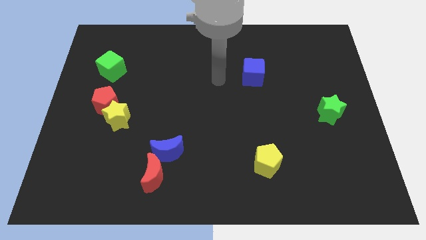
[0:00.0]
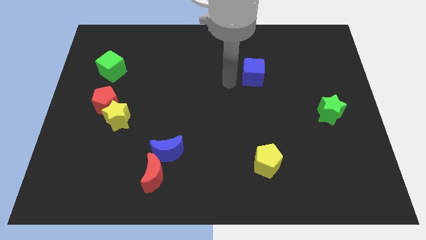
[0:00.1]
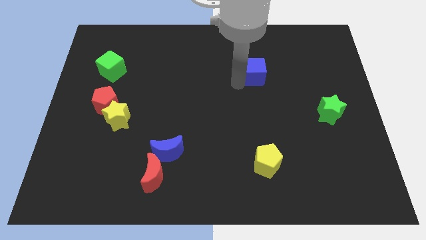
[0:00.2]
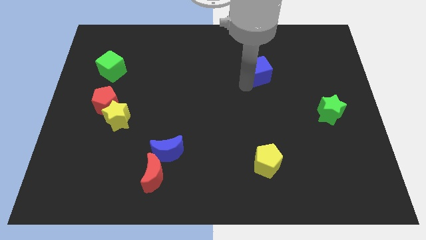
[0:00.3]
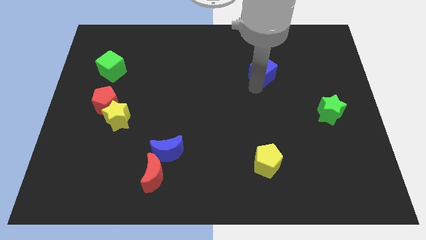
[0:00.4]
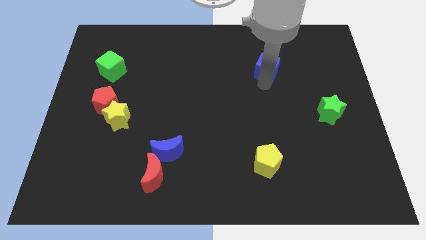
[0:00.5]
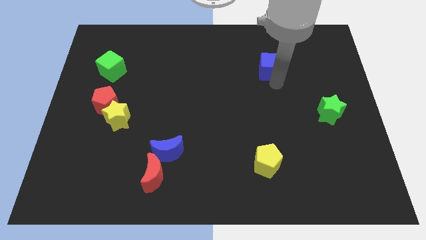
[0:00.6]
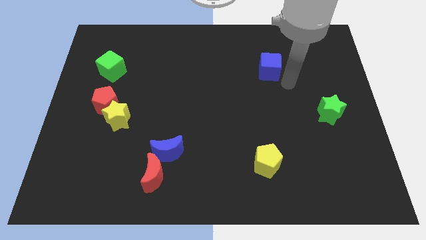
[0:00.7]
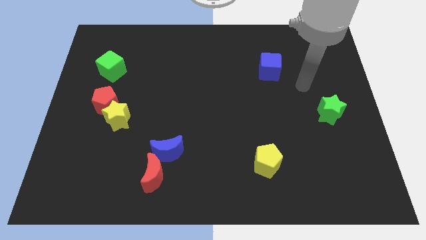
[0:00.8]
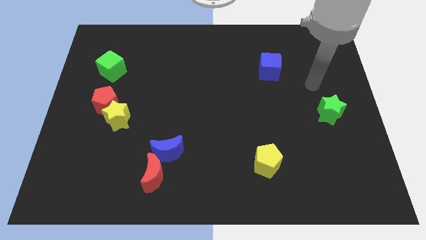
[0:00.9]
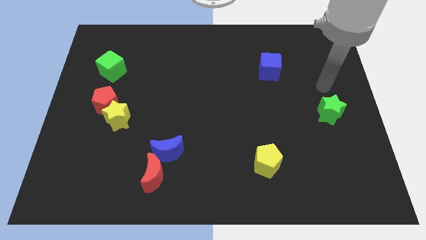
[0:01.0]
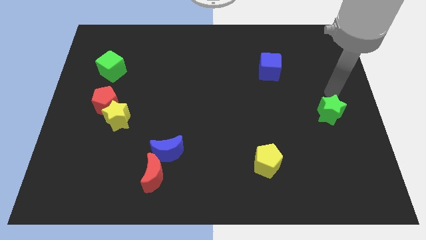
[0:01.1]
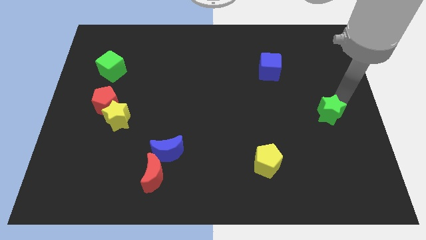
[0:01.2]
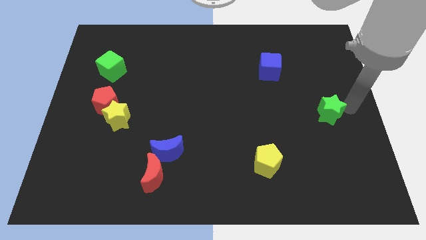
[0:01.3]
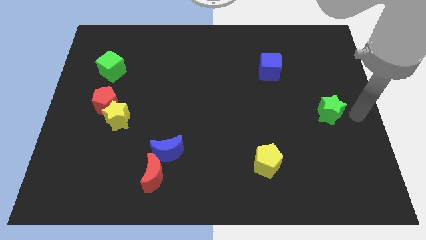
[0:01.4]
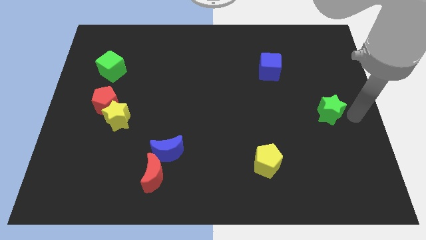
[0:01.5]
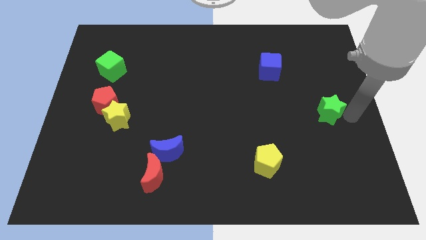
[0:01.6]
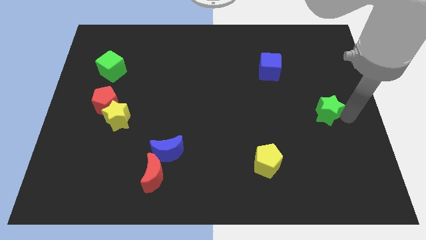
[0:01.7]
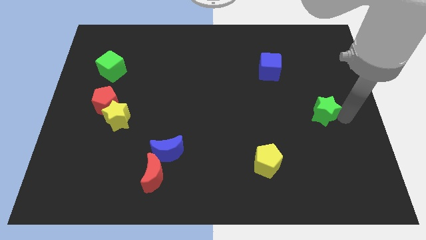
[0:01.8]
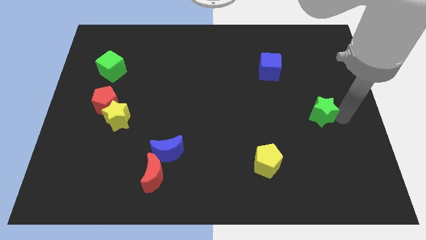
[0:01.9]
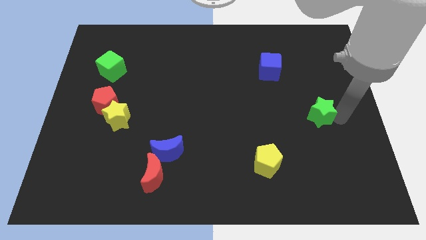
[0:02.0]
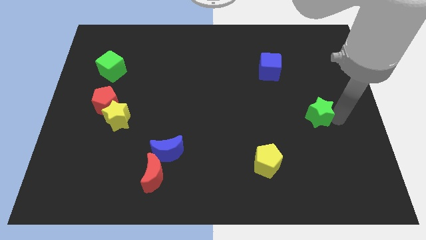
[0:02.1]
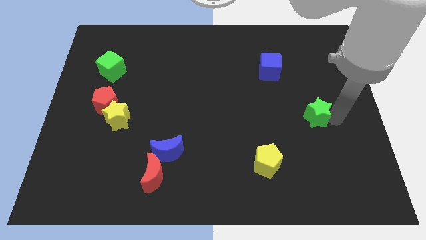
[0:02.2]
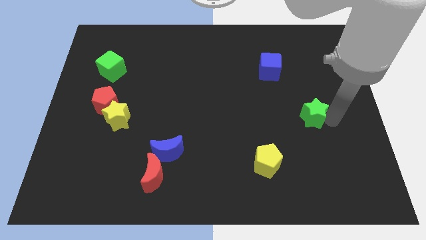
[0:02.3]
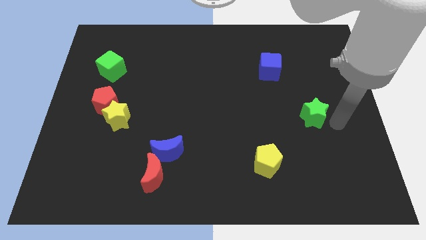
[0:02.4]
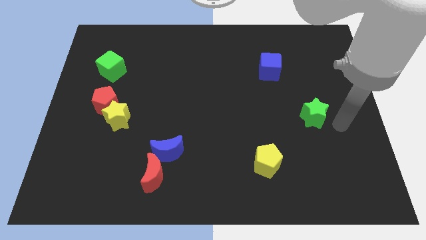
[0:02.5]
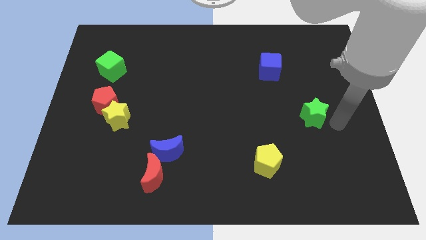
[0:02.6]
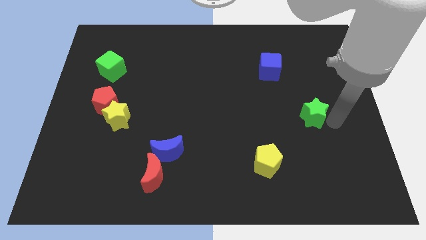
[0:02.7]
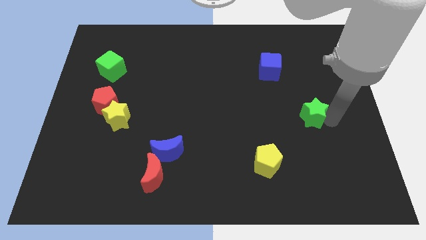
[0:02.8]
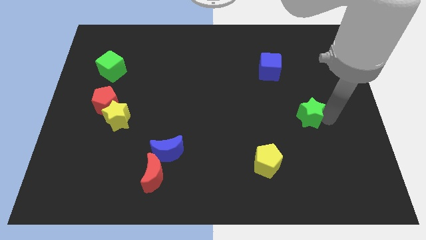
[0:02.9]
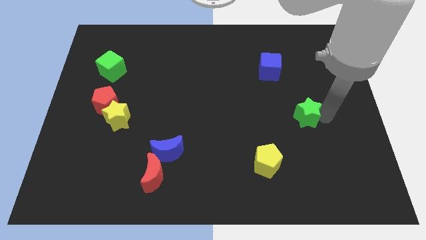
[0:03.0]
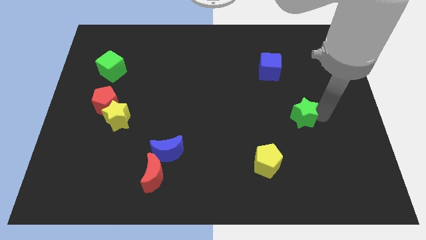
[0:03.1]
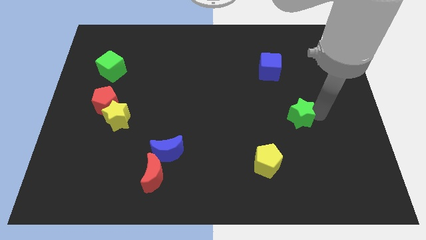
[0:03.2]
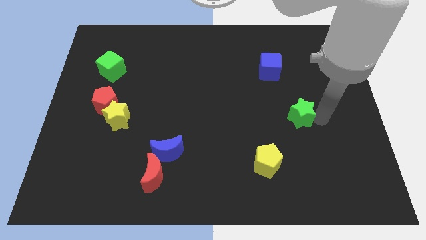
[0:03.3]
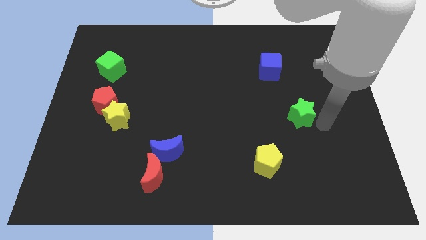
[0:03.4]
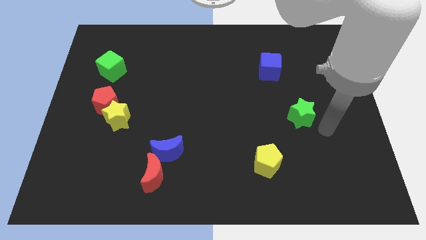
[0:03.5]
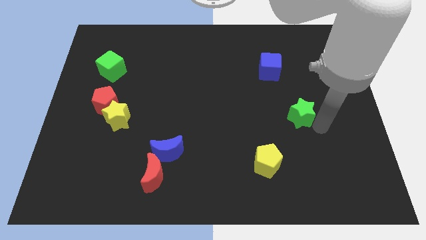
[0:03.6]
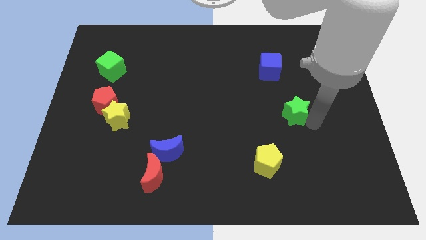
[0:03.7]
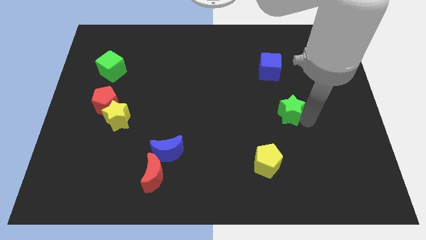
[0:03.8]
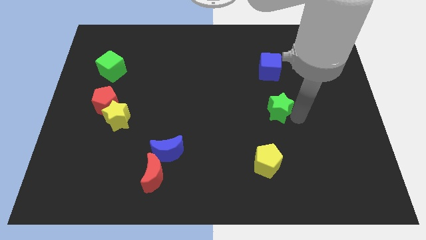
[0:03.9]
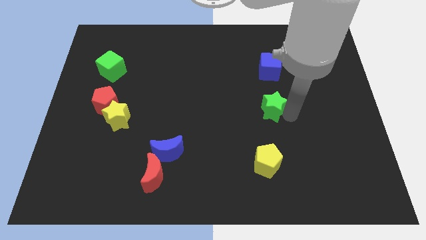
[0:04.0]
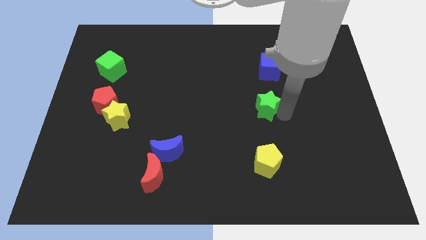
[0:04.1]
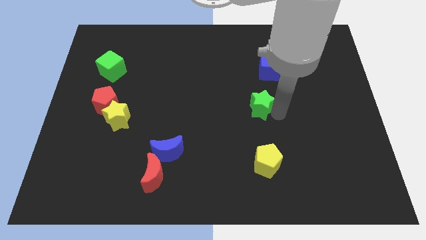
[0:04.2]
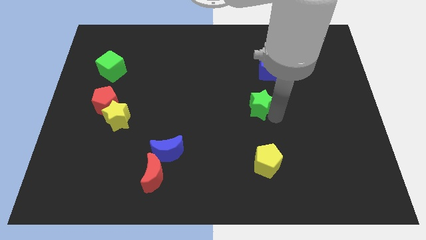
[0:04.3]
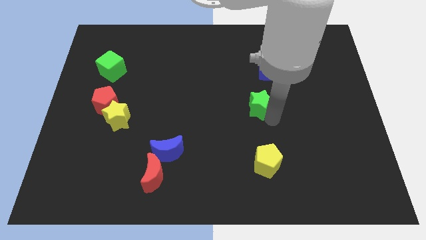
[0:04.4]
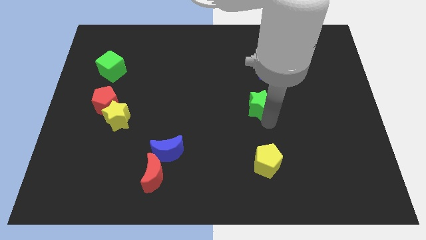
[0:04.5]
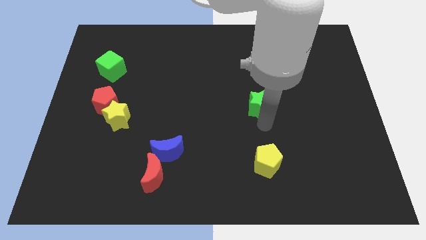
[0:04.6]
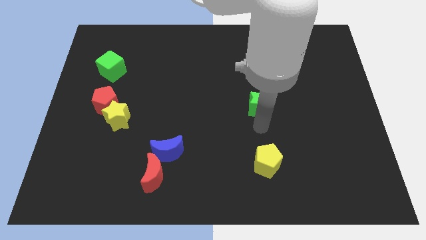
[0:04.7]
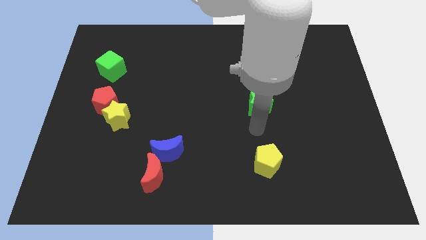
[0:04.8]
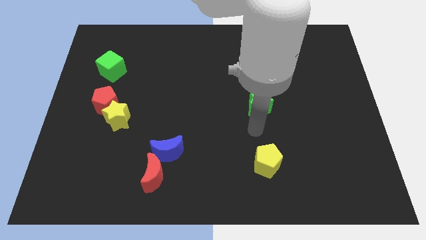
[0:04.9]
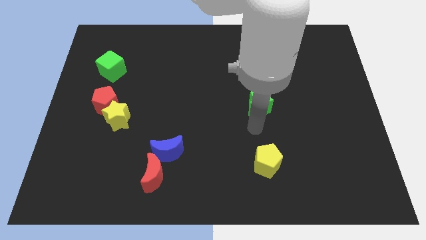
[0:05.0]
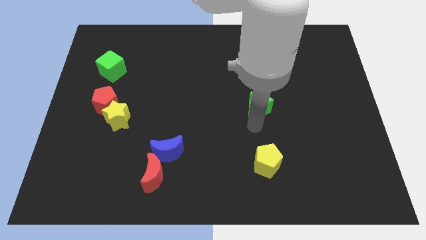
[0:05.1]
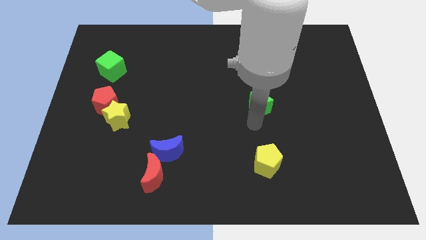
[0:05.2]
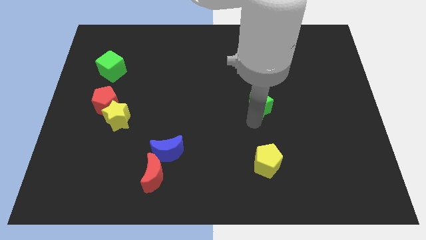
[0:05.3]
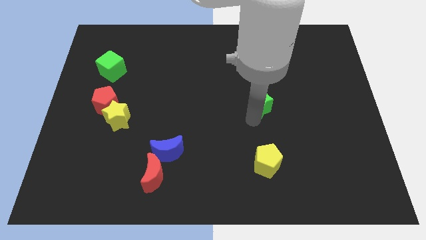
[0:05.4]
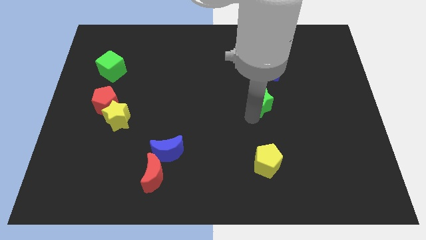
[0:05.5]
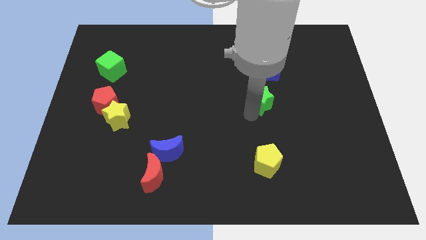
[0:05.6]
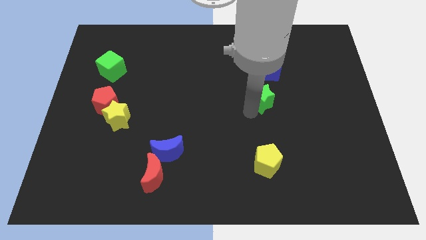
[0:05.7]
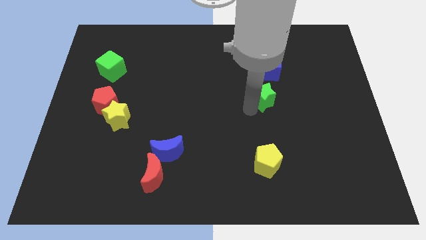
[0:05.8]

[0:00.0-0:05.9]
push the green star to the bottom left of the blue cube
